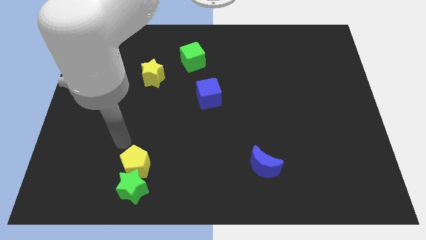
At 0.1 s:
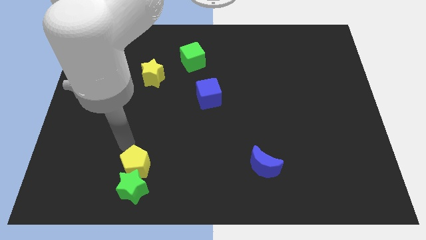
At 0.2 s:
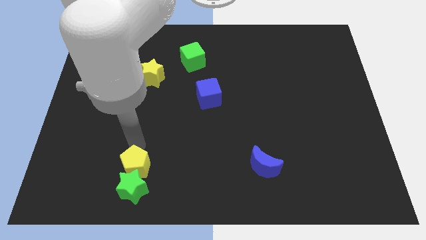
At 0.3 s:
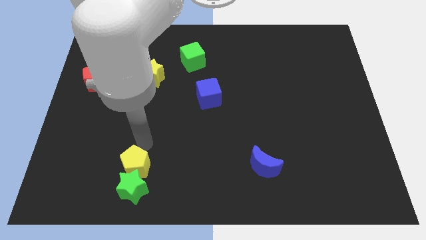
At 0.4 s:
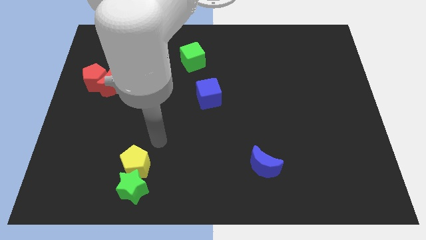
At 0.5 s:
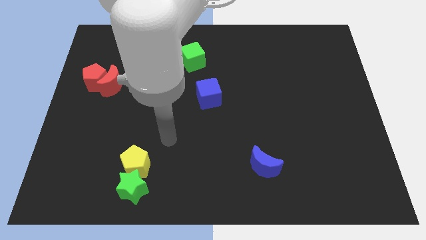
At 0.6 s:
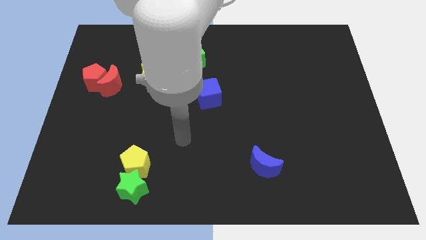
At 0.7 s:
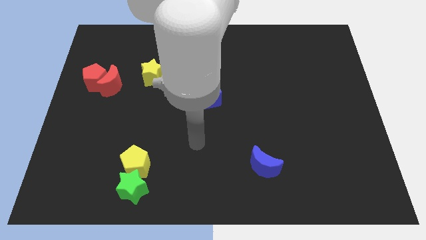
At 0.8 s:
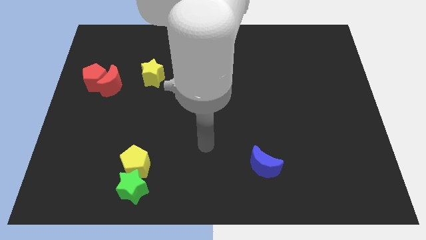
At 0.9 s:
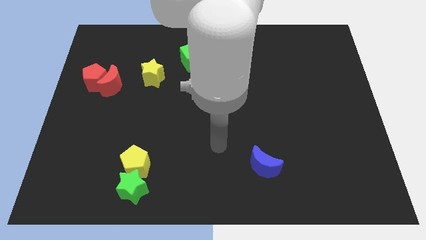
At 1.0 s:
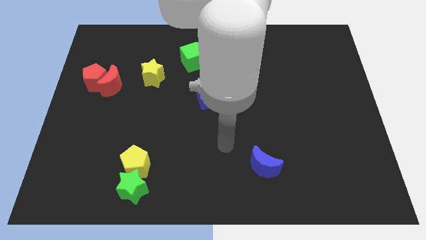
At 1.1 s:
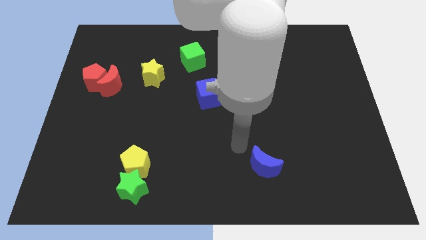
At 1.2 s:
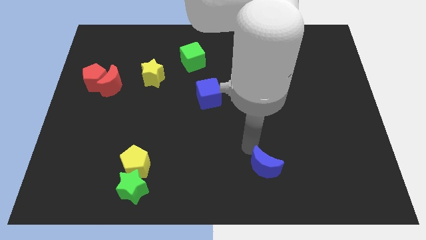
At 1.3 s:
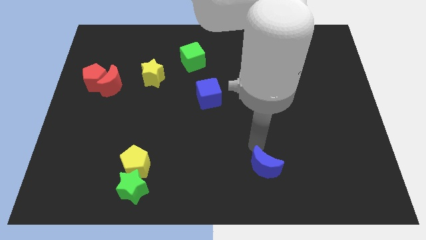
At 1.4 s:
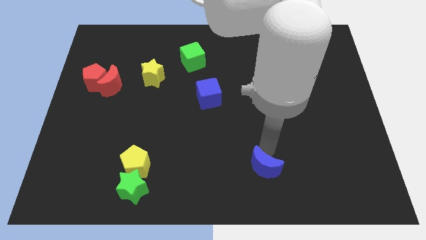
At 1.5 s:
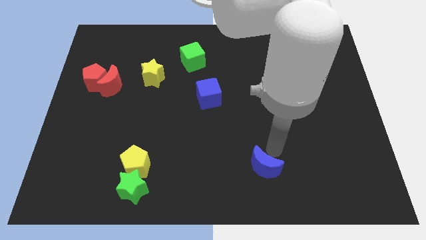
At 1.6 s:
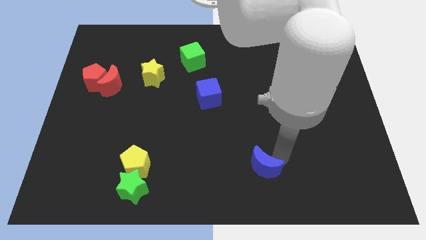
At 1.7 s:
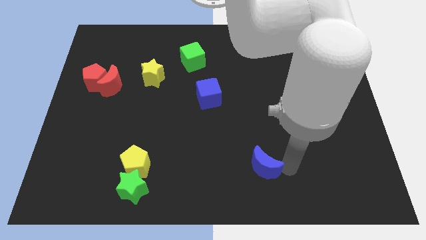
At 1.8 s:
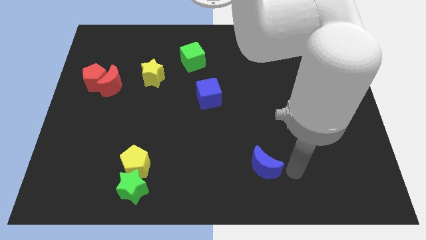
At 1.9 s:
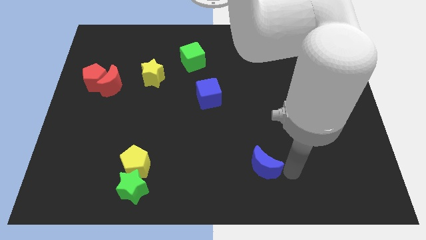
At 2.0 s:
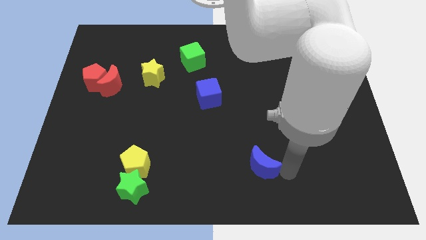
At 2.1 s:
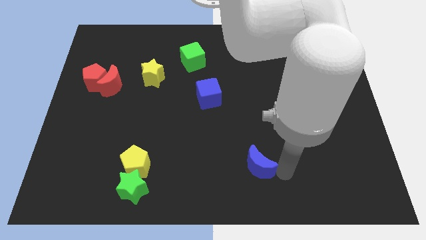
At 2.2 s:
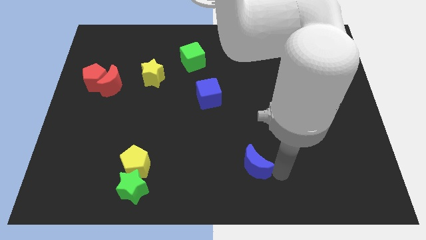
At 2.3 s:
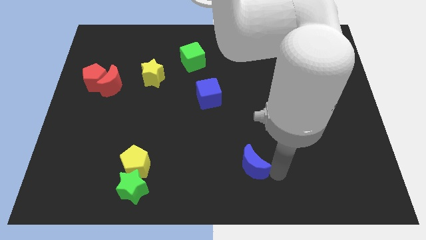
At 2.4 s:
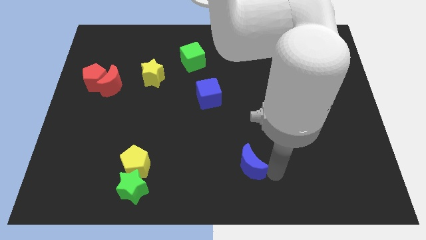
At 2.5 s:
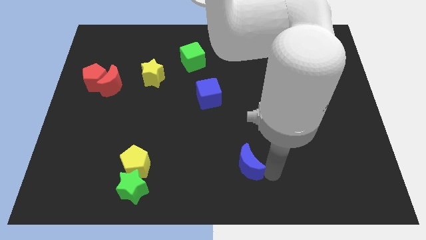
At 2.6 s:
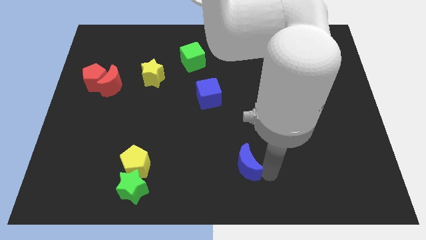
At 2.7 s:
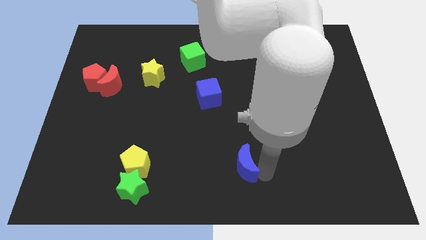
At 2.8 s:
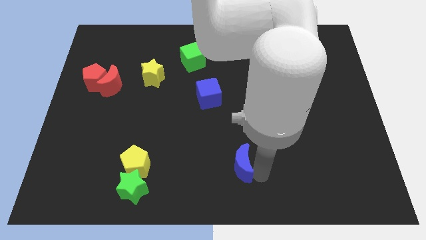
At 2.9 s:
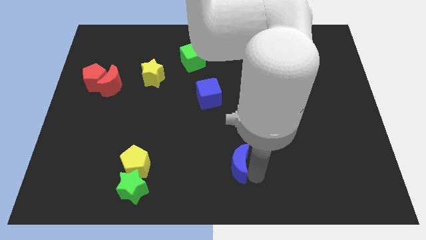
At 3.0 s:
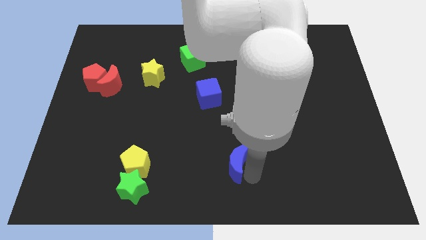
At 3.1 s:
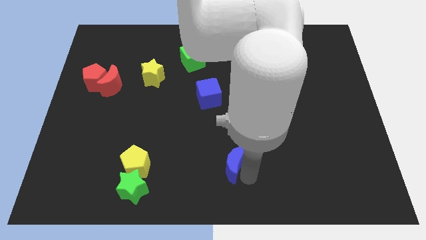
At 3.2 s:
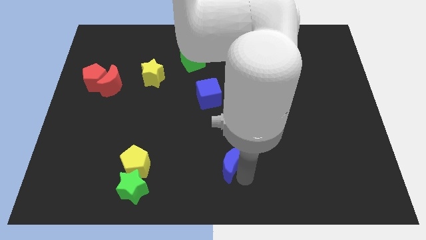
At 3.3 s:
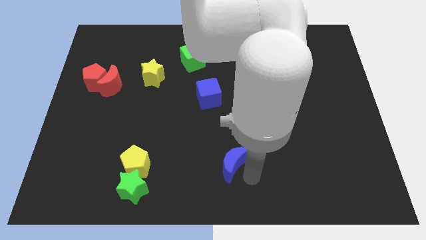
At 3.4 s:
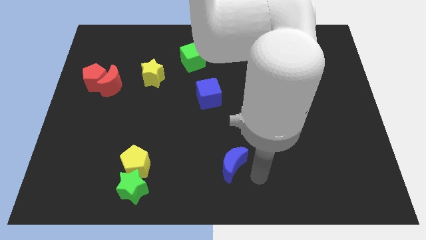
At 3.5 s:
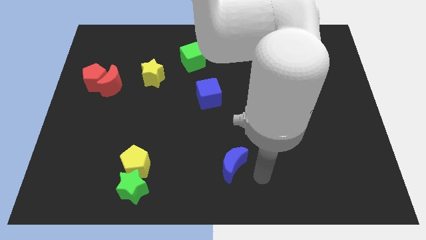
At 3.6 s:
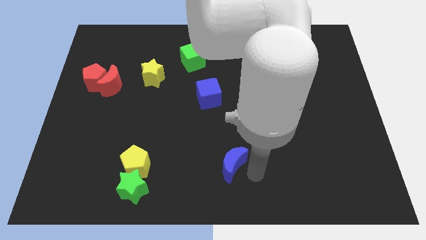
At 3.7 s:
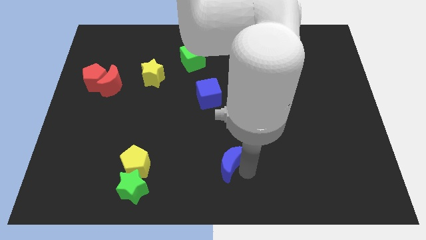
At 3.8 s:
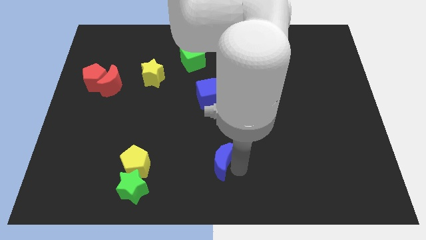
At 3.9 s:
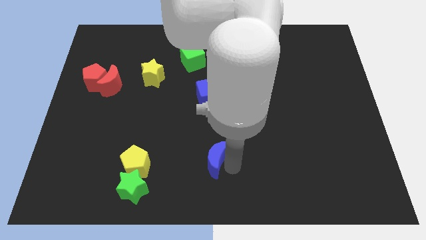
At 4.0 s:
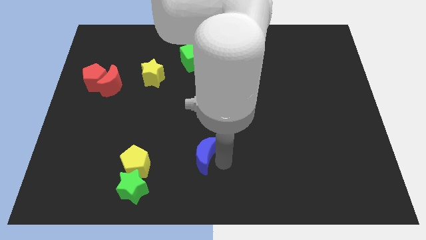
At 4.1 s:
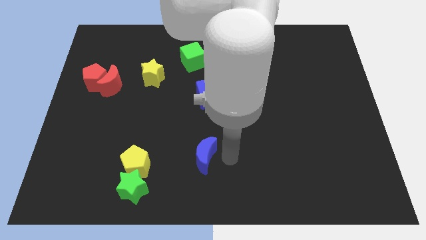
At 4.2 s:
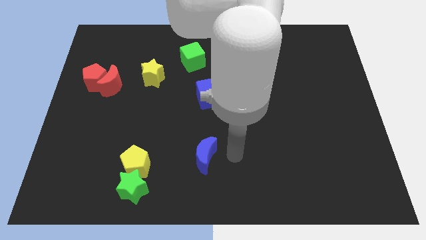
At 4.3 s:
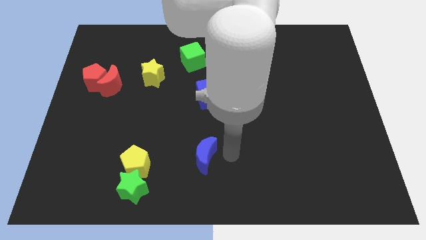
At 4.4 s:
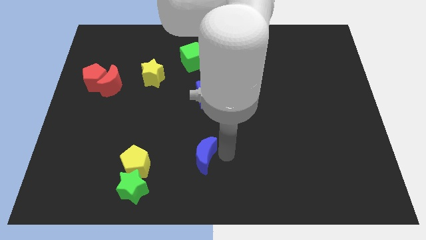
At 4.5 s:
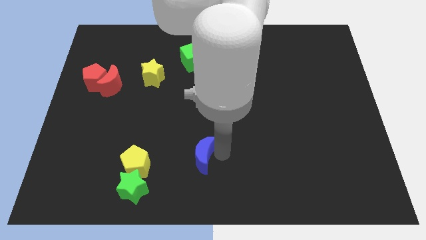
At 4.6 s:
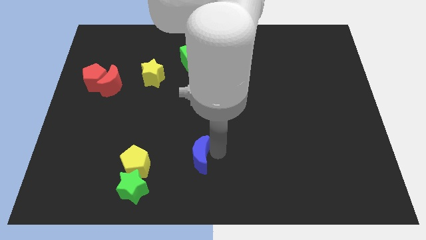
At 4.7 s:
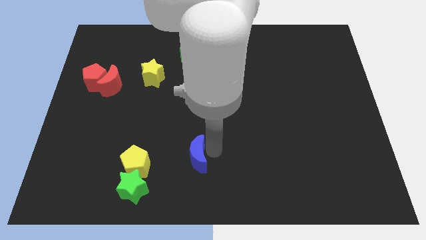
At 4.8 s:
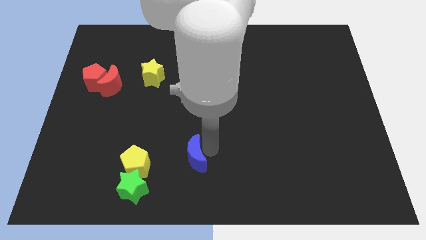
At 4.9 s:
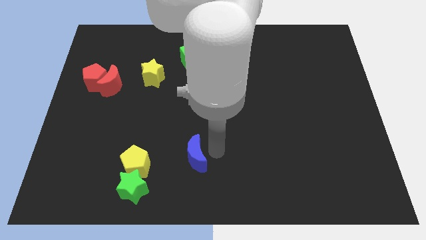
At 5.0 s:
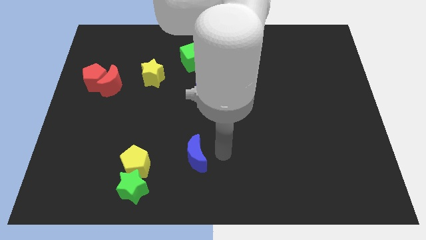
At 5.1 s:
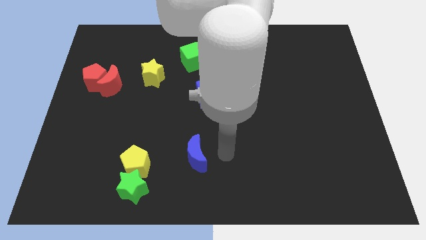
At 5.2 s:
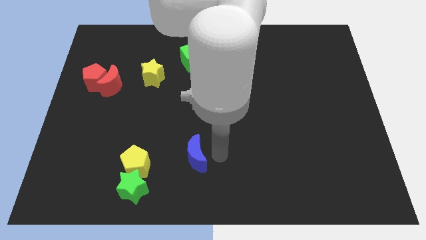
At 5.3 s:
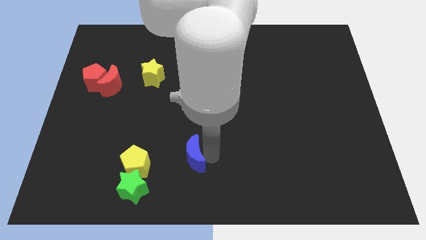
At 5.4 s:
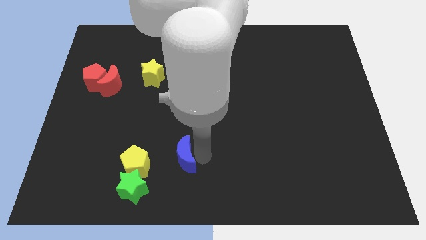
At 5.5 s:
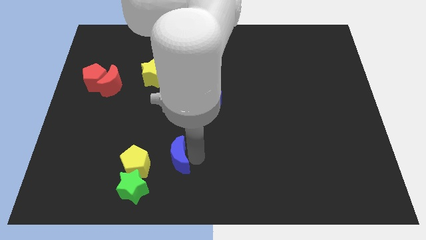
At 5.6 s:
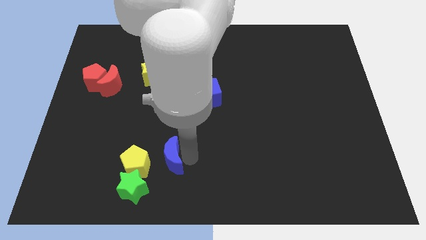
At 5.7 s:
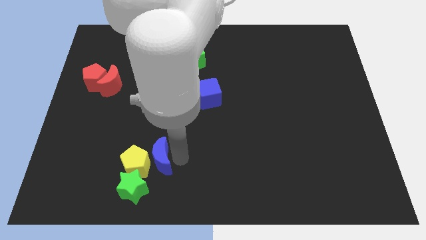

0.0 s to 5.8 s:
put the blue moon to the yellow pentagon

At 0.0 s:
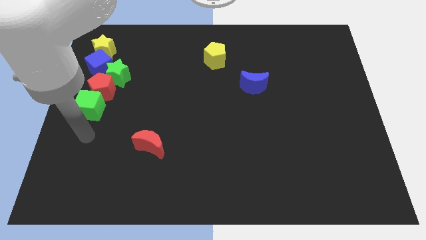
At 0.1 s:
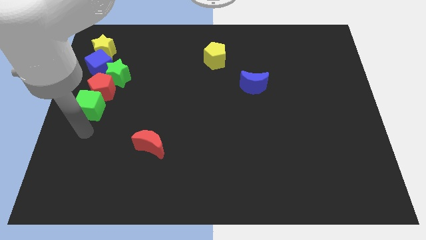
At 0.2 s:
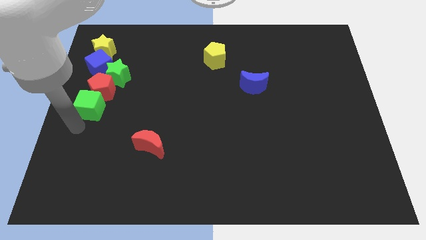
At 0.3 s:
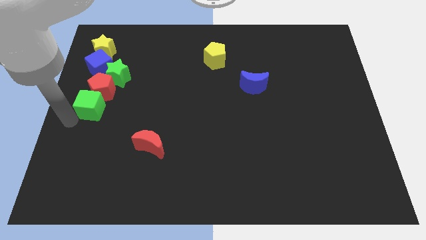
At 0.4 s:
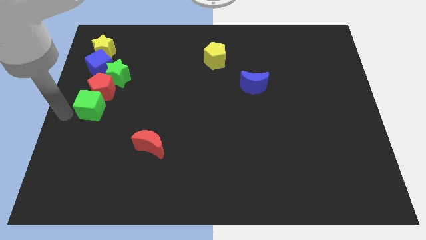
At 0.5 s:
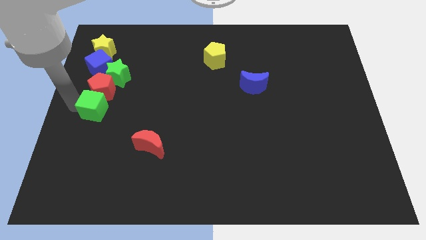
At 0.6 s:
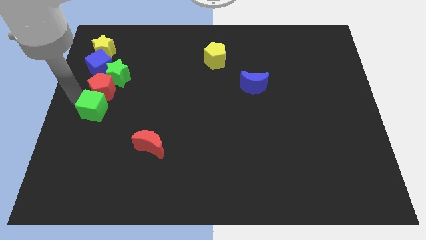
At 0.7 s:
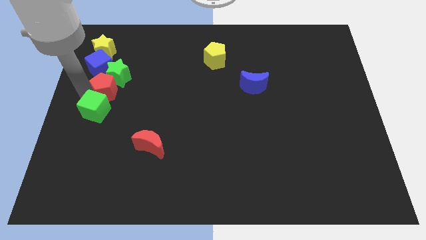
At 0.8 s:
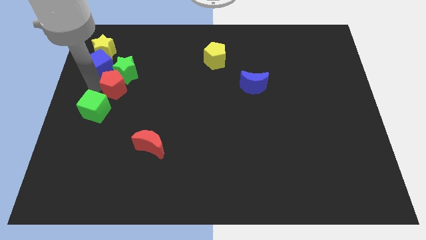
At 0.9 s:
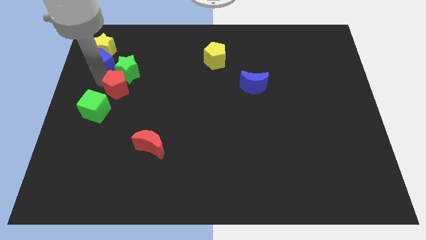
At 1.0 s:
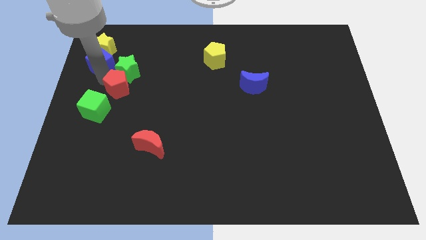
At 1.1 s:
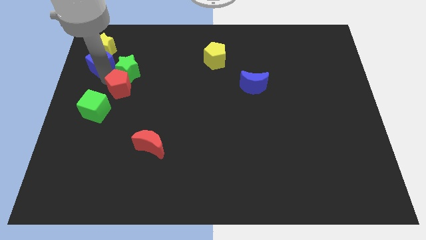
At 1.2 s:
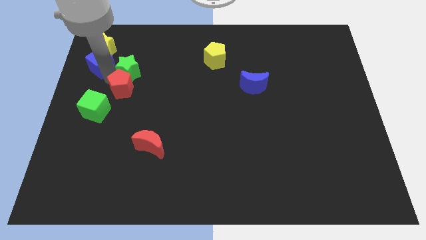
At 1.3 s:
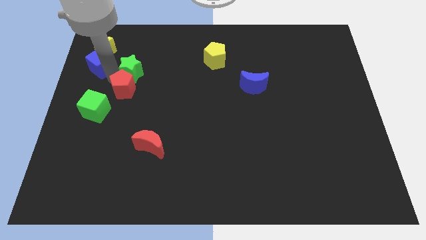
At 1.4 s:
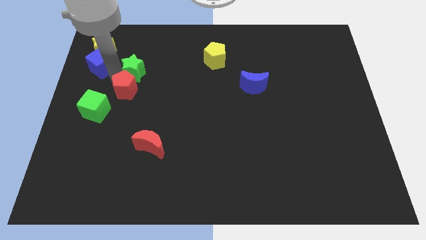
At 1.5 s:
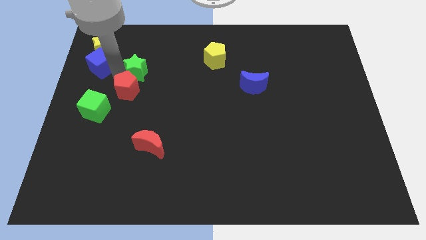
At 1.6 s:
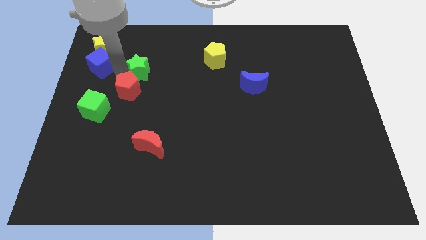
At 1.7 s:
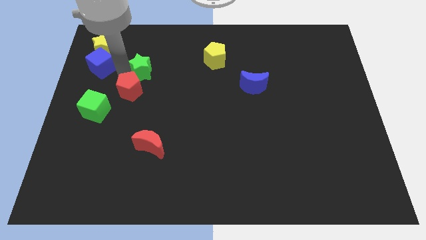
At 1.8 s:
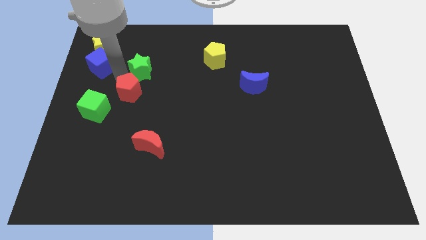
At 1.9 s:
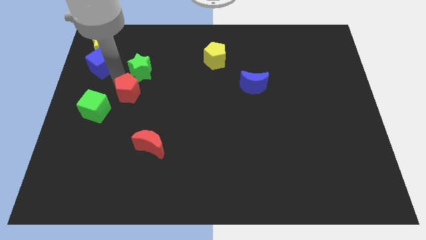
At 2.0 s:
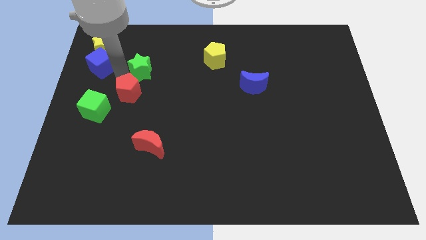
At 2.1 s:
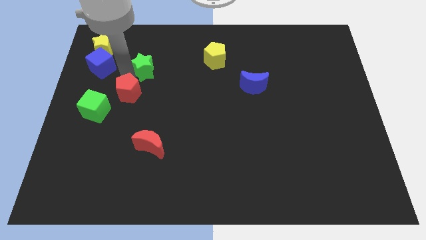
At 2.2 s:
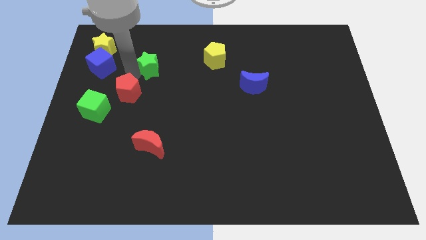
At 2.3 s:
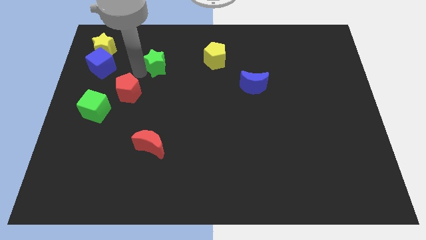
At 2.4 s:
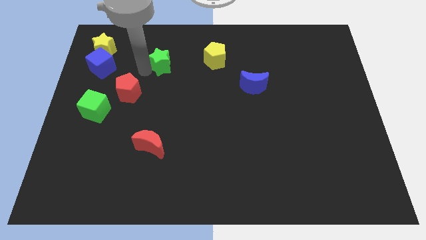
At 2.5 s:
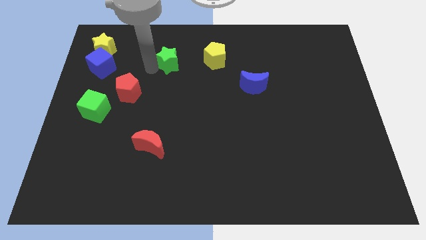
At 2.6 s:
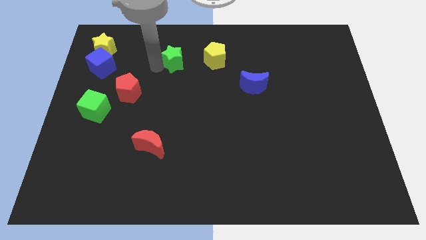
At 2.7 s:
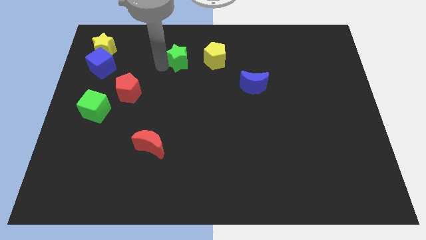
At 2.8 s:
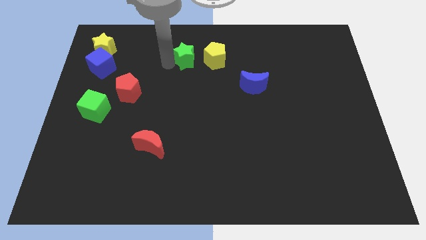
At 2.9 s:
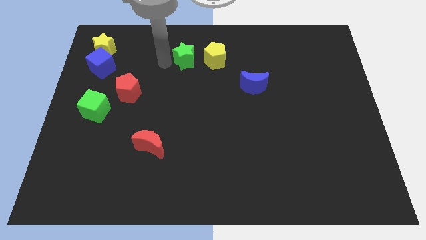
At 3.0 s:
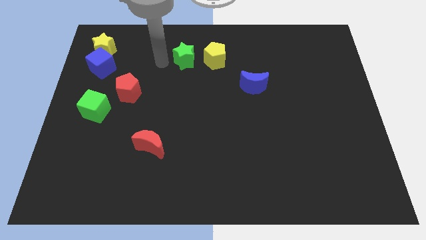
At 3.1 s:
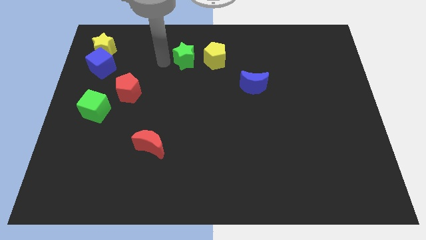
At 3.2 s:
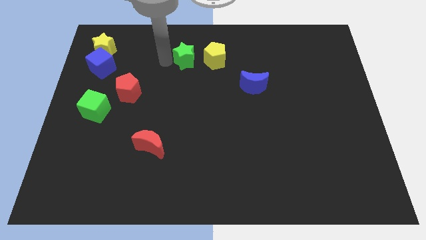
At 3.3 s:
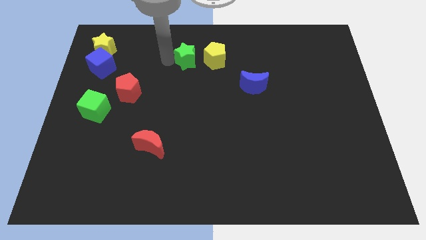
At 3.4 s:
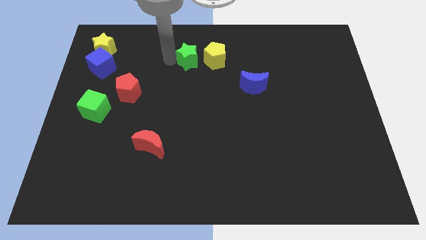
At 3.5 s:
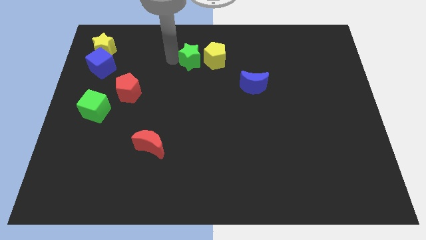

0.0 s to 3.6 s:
push the green star to the yellow pentagon
